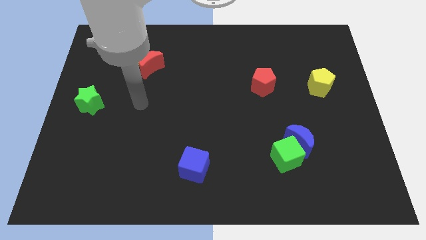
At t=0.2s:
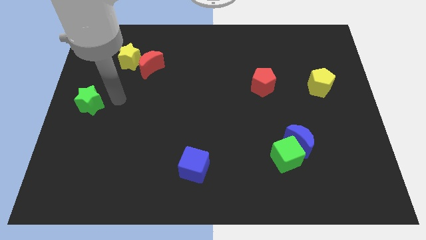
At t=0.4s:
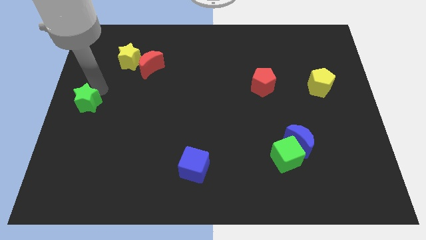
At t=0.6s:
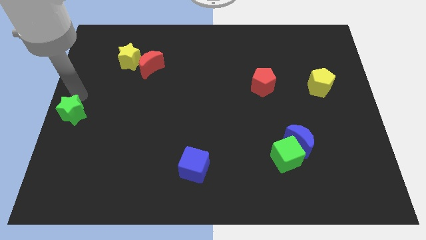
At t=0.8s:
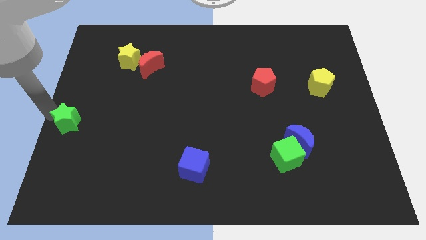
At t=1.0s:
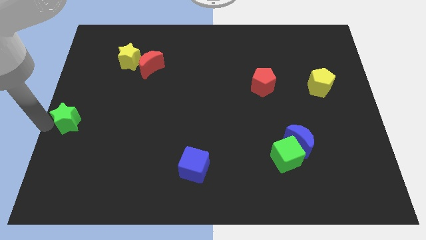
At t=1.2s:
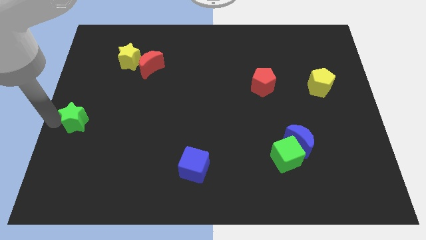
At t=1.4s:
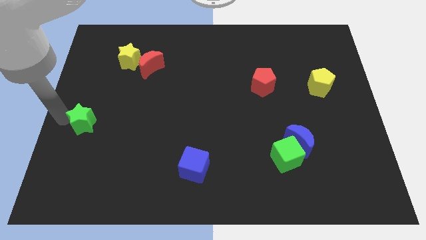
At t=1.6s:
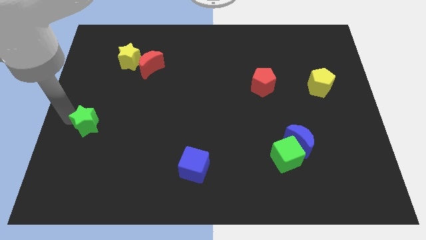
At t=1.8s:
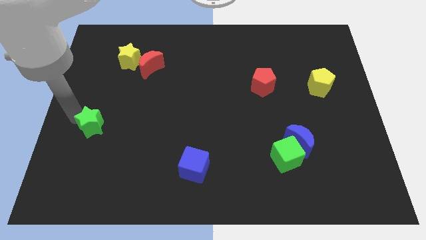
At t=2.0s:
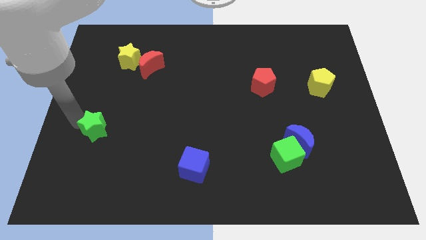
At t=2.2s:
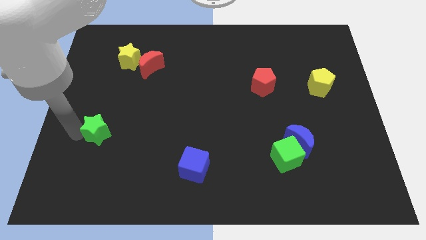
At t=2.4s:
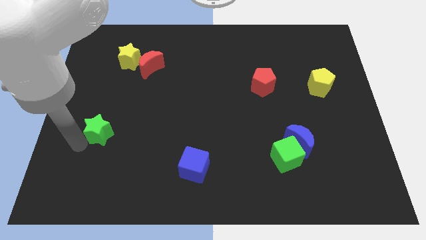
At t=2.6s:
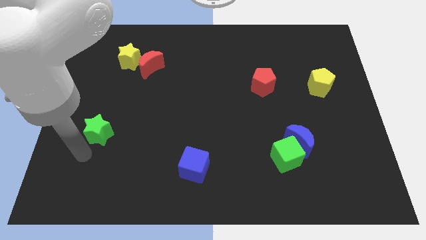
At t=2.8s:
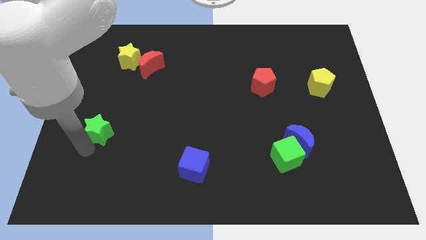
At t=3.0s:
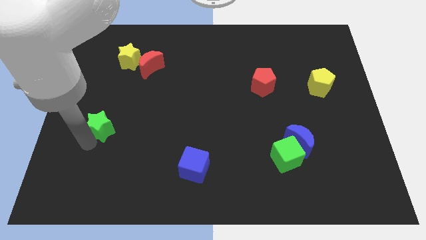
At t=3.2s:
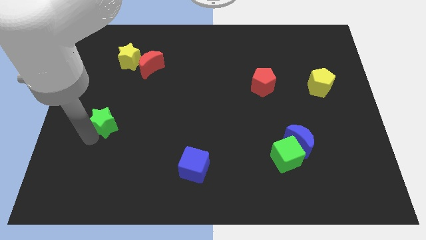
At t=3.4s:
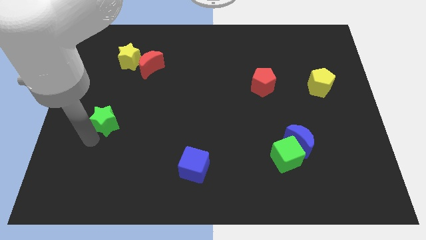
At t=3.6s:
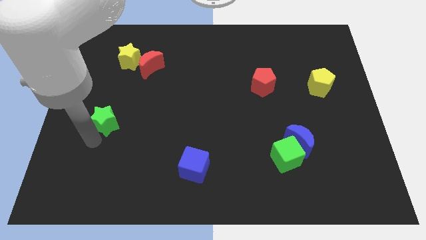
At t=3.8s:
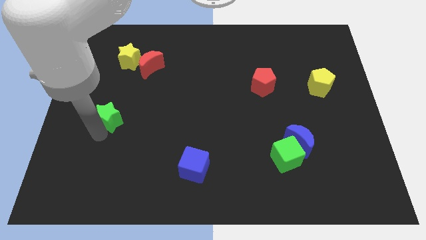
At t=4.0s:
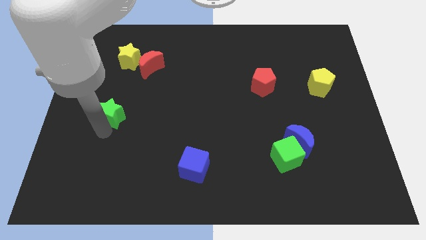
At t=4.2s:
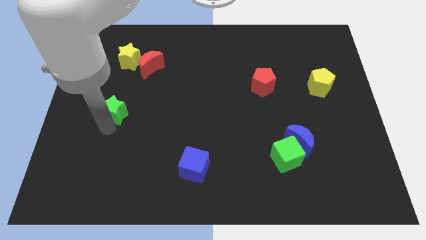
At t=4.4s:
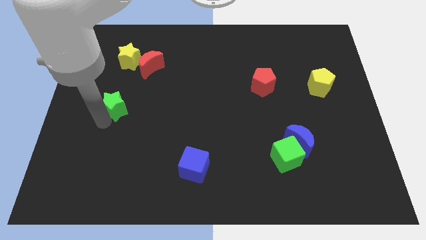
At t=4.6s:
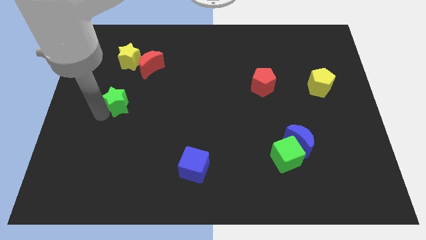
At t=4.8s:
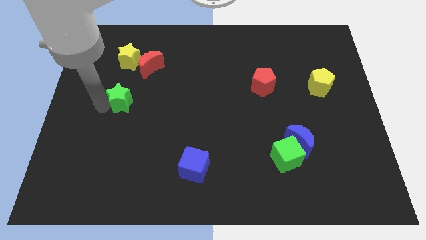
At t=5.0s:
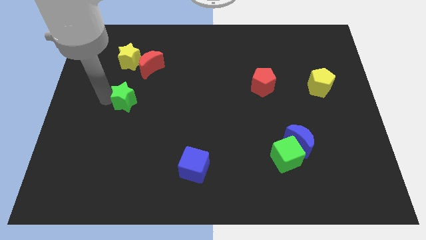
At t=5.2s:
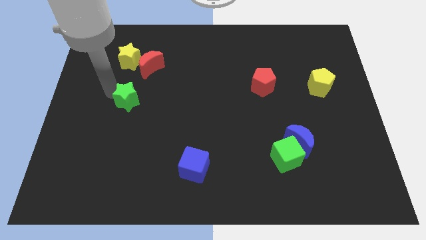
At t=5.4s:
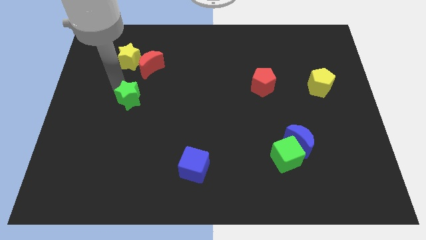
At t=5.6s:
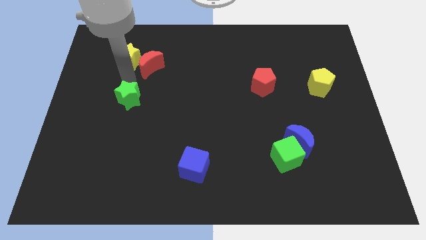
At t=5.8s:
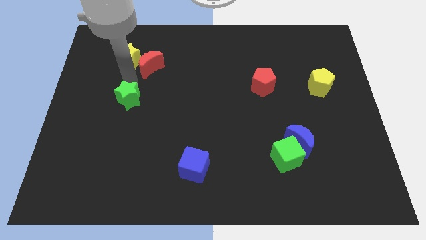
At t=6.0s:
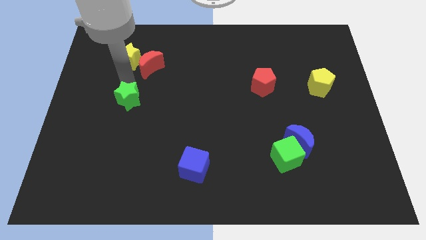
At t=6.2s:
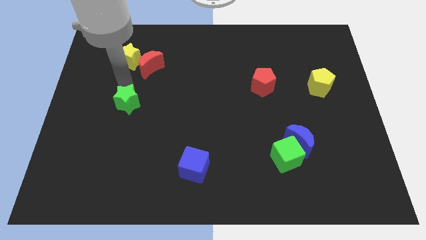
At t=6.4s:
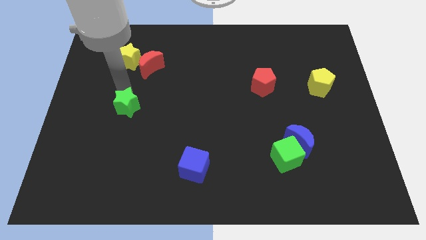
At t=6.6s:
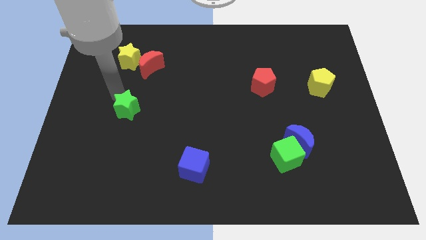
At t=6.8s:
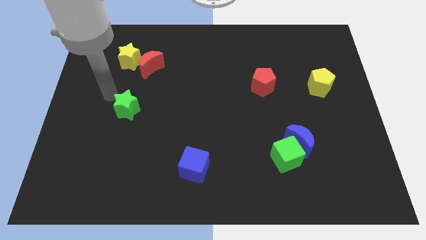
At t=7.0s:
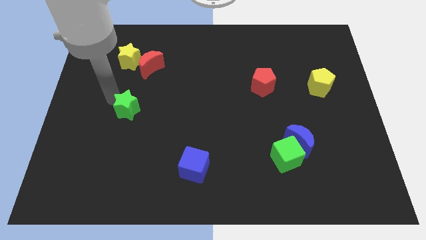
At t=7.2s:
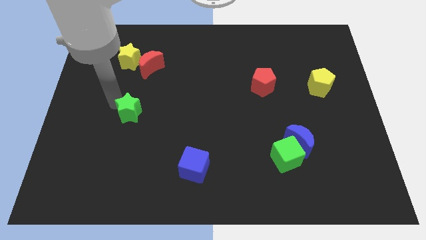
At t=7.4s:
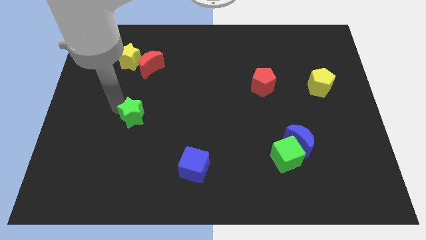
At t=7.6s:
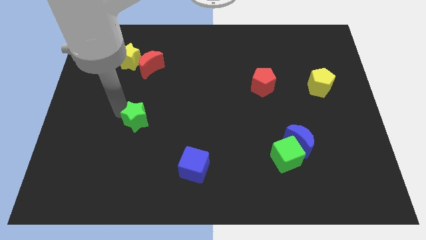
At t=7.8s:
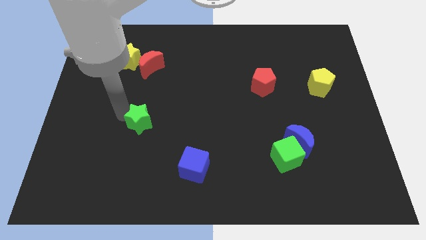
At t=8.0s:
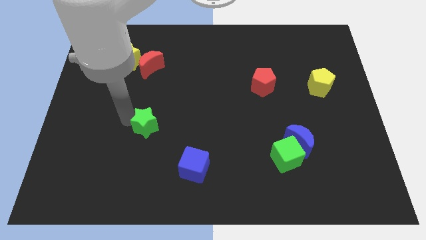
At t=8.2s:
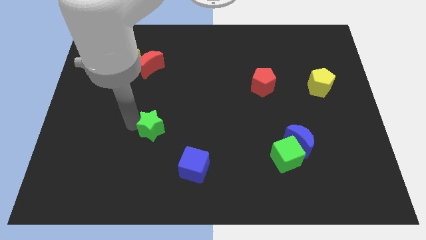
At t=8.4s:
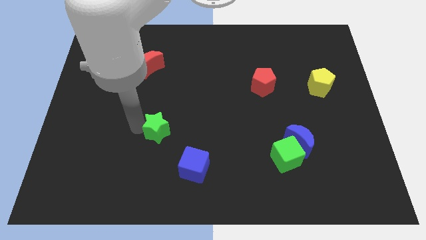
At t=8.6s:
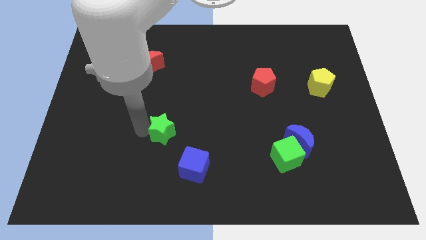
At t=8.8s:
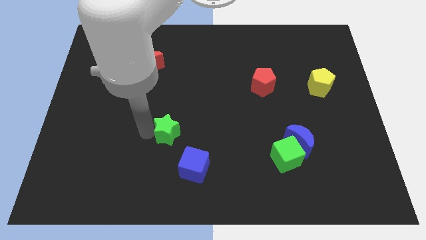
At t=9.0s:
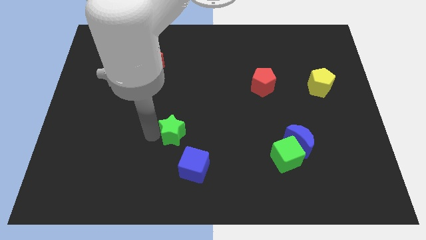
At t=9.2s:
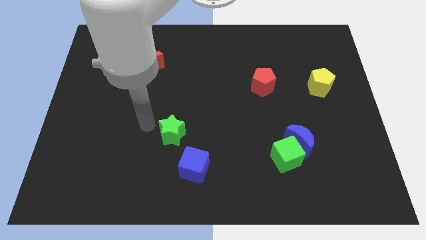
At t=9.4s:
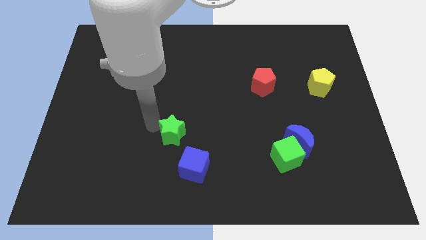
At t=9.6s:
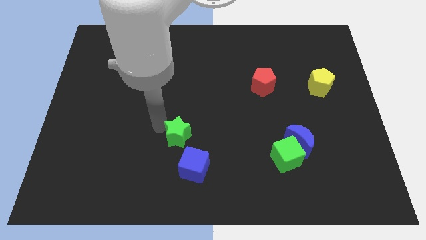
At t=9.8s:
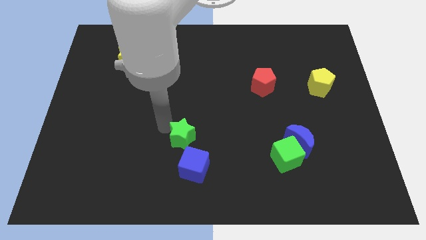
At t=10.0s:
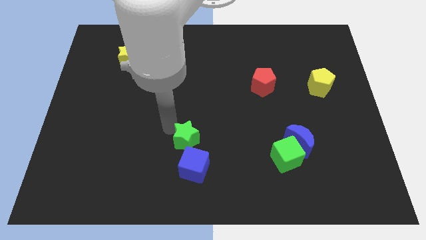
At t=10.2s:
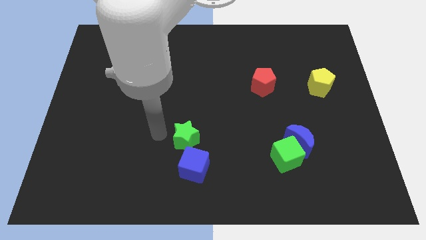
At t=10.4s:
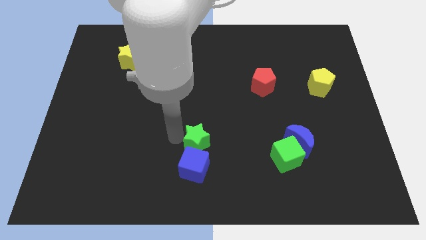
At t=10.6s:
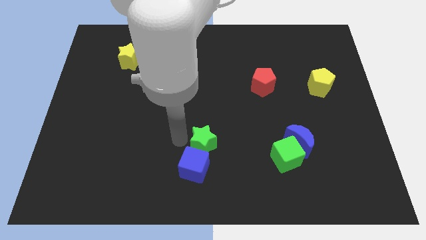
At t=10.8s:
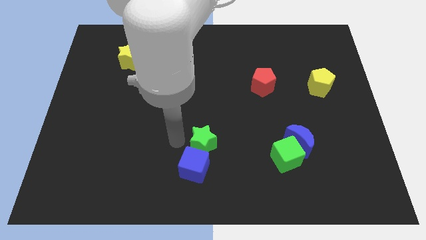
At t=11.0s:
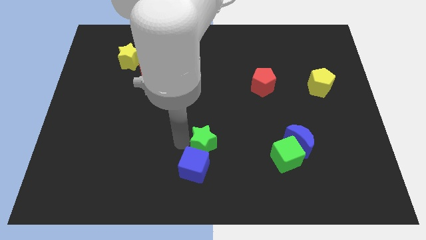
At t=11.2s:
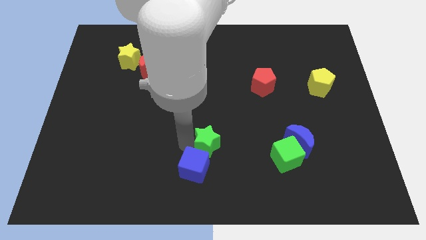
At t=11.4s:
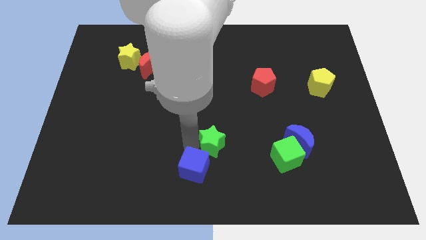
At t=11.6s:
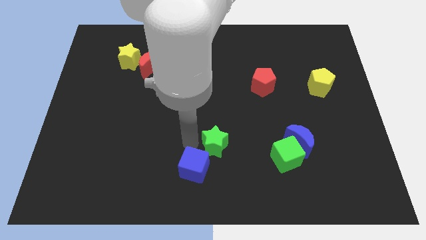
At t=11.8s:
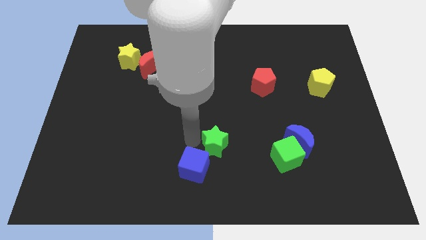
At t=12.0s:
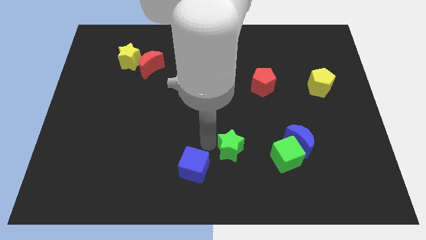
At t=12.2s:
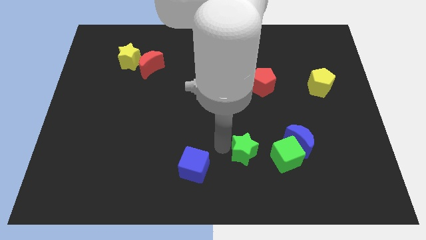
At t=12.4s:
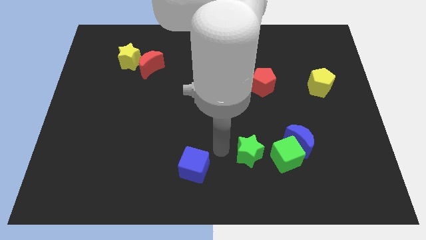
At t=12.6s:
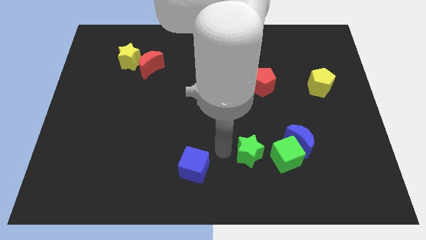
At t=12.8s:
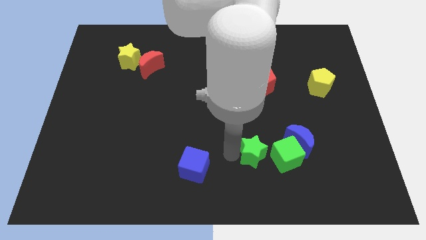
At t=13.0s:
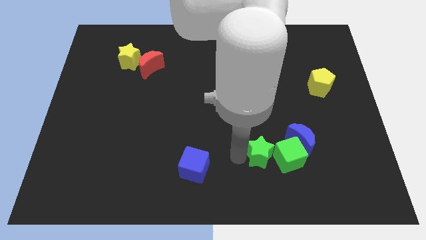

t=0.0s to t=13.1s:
put the green star next to the green cube

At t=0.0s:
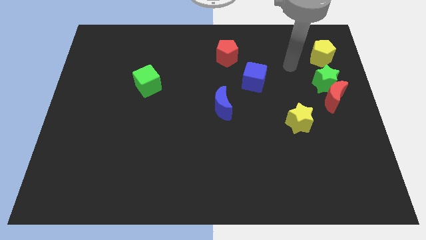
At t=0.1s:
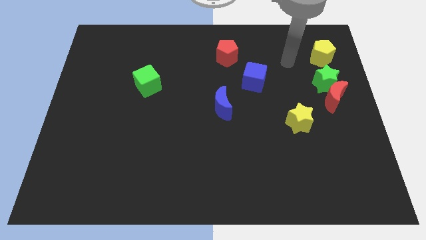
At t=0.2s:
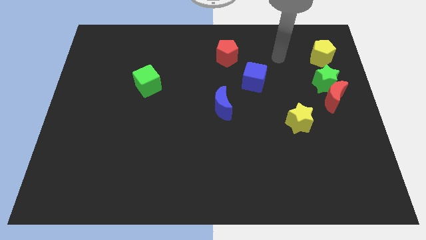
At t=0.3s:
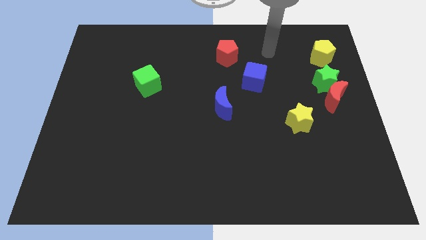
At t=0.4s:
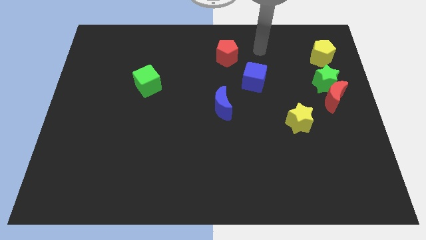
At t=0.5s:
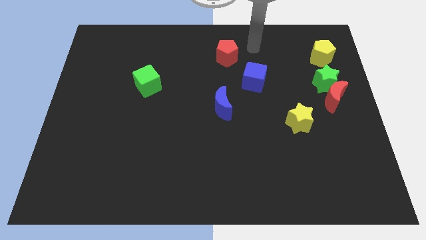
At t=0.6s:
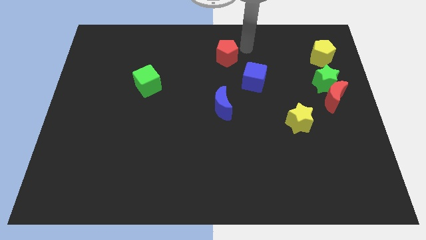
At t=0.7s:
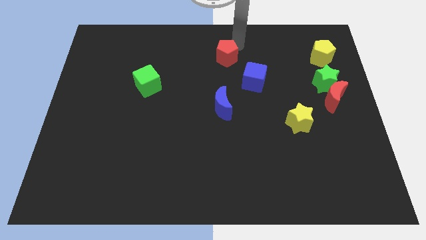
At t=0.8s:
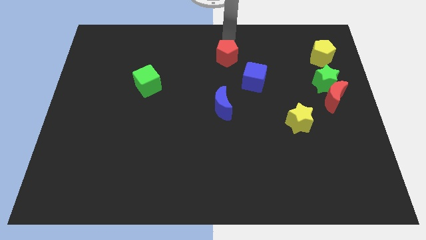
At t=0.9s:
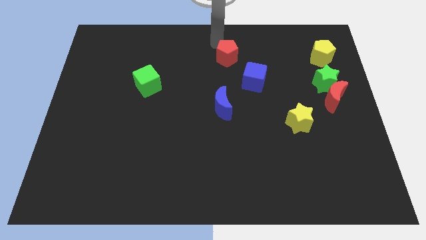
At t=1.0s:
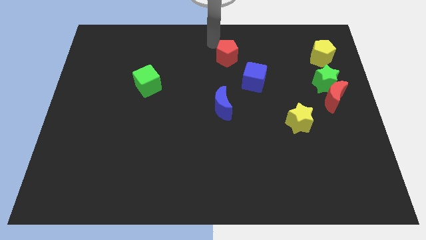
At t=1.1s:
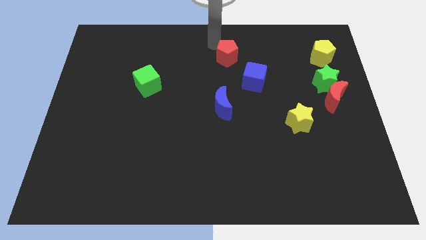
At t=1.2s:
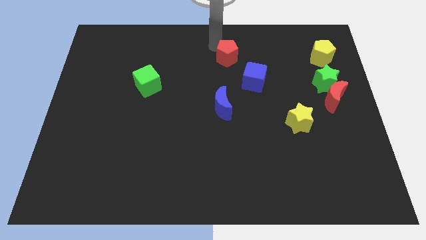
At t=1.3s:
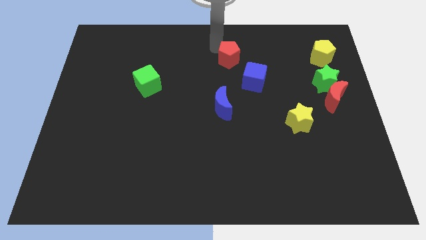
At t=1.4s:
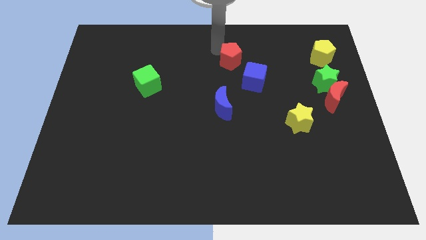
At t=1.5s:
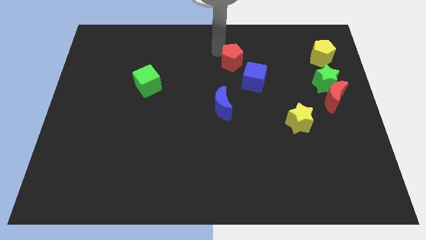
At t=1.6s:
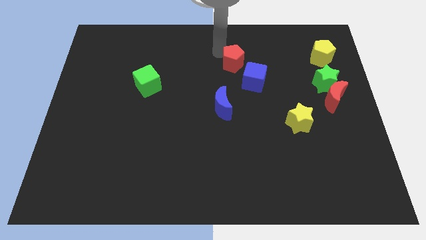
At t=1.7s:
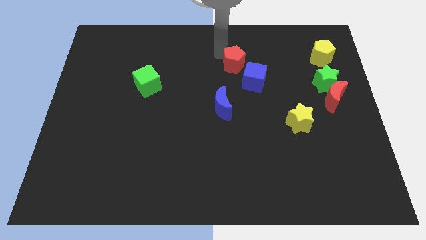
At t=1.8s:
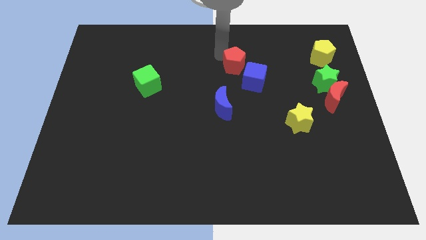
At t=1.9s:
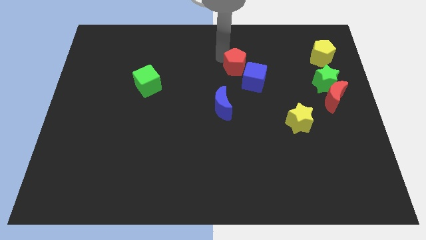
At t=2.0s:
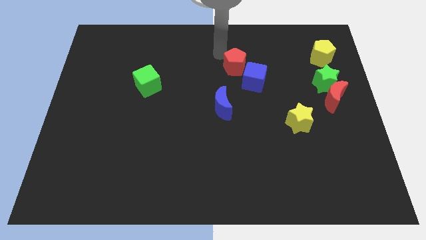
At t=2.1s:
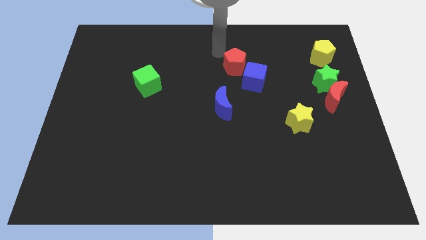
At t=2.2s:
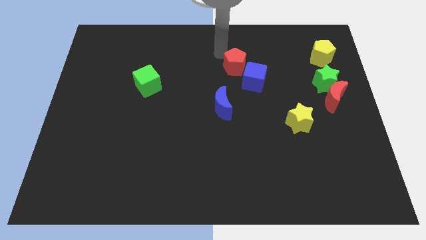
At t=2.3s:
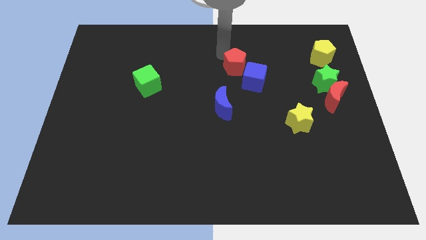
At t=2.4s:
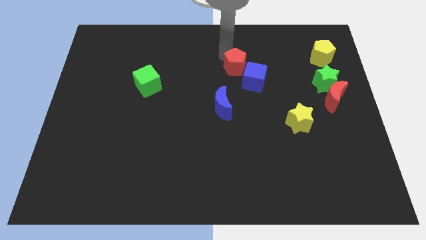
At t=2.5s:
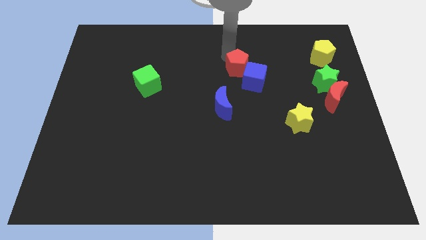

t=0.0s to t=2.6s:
put the red pentagon towards the blue cube
